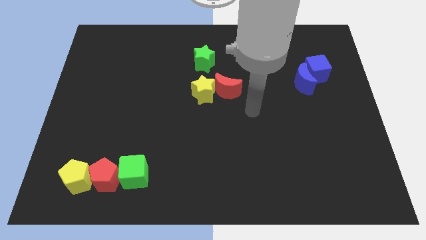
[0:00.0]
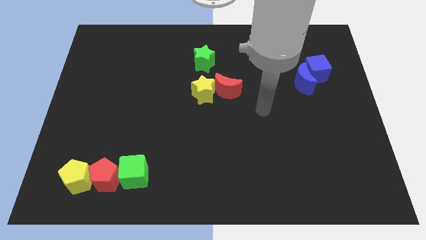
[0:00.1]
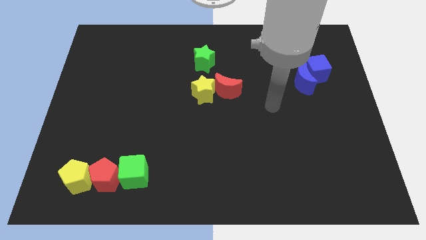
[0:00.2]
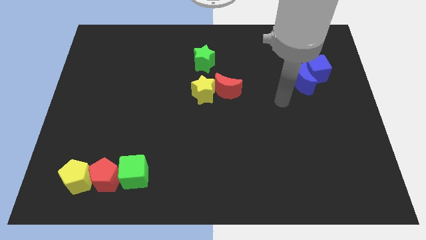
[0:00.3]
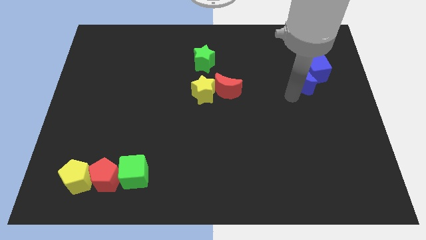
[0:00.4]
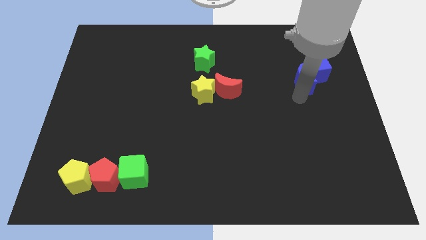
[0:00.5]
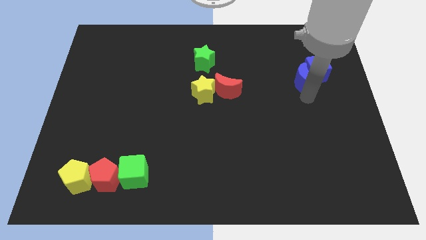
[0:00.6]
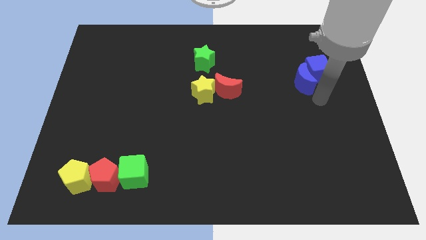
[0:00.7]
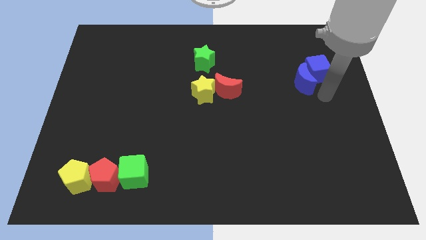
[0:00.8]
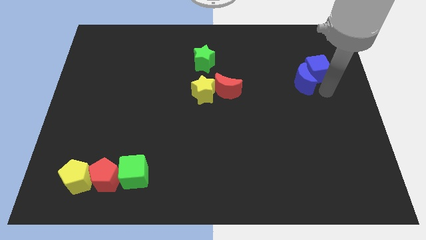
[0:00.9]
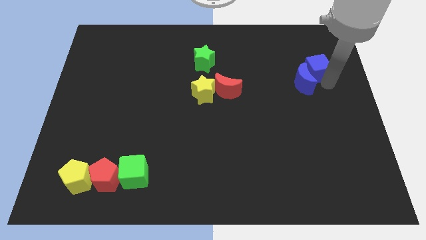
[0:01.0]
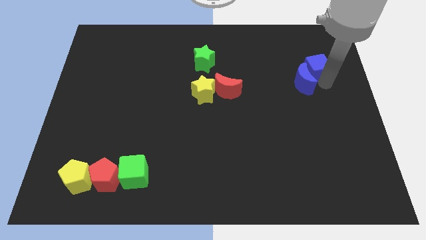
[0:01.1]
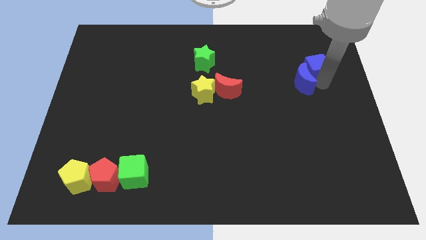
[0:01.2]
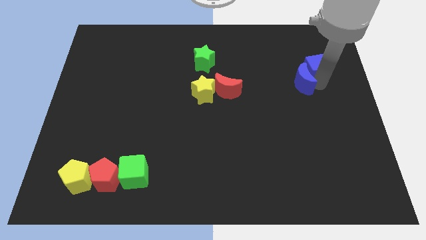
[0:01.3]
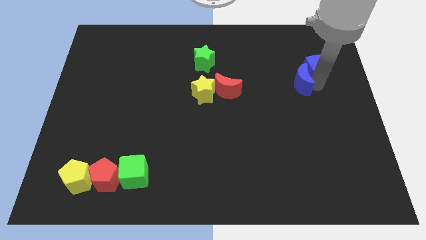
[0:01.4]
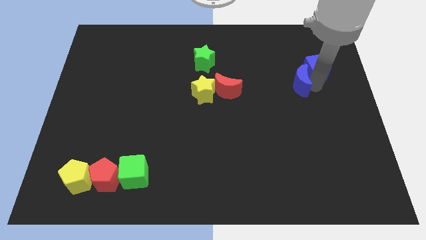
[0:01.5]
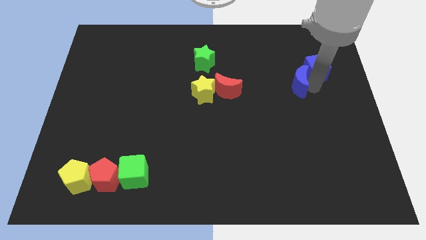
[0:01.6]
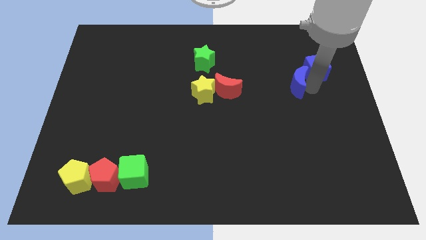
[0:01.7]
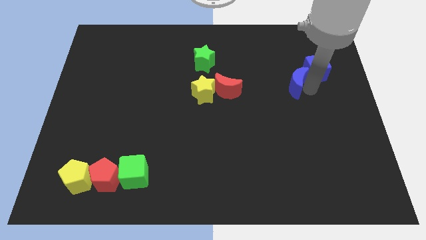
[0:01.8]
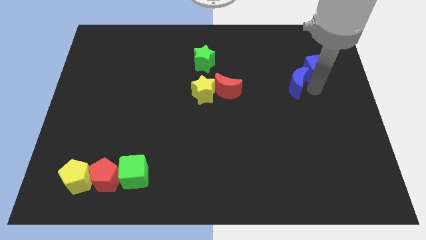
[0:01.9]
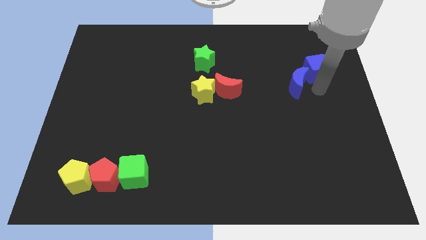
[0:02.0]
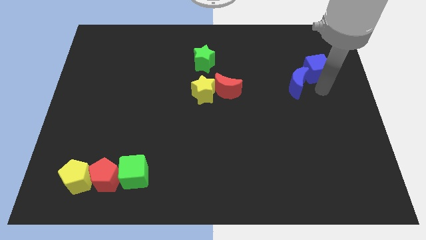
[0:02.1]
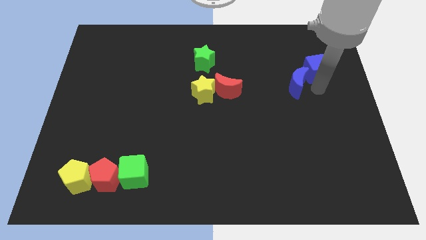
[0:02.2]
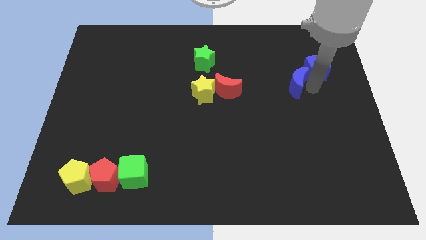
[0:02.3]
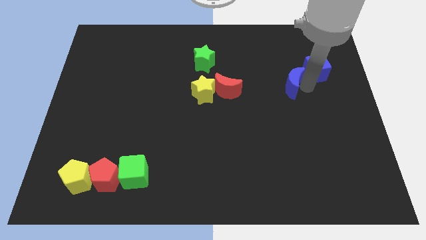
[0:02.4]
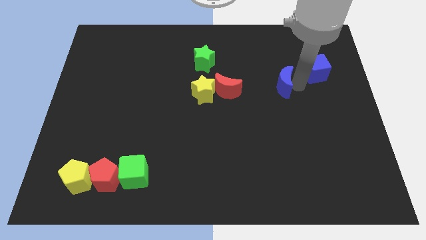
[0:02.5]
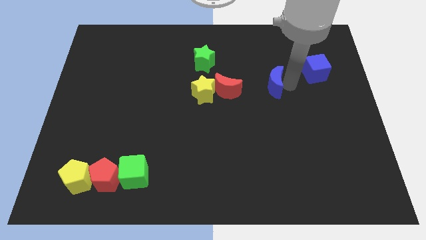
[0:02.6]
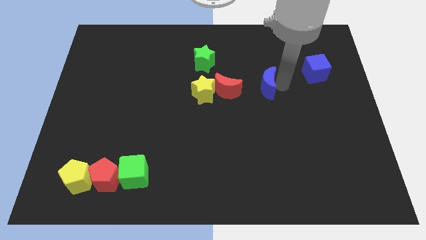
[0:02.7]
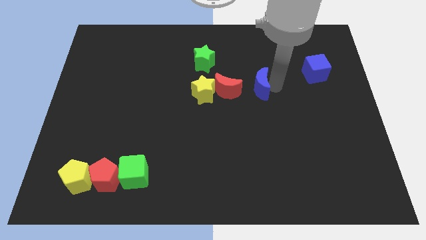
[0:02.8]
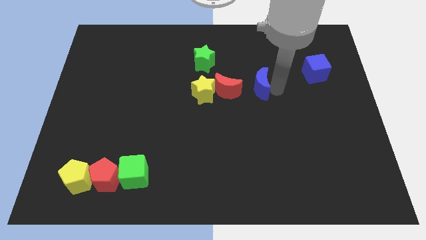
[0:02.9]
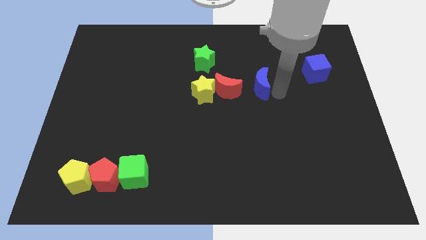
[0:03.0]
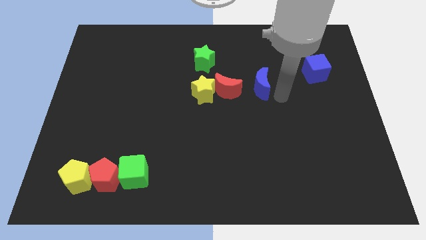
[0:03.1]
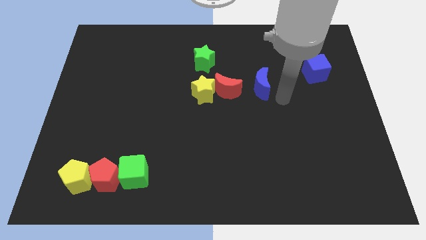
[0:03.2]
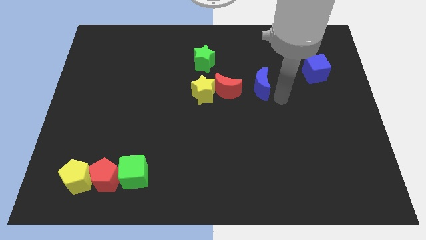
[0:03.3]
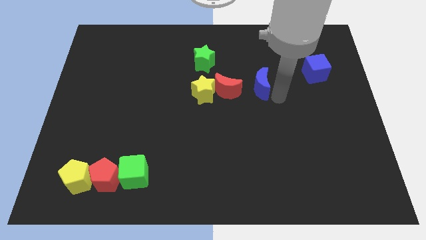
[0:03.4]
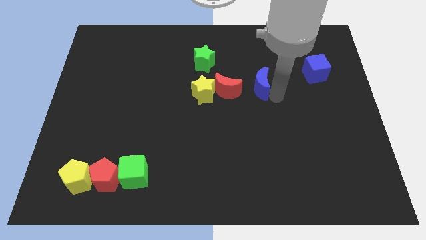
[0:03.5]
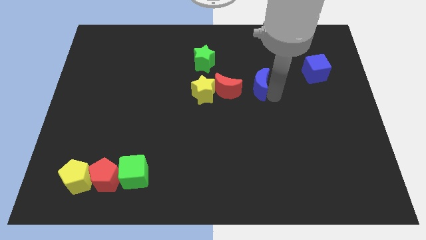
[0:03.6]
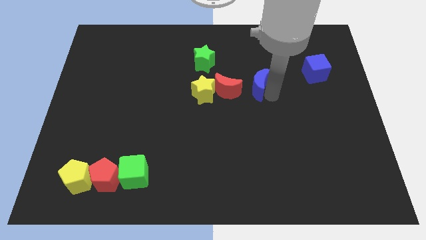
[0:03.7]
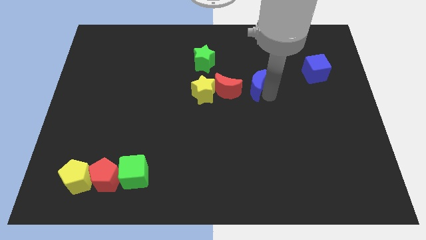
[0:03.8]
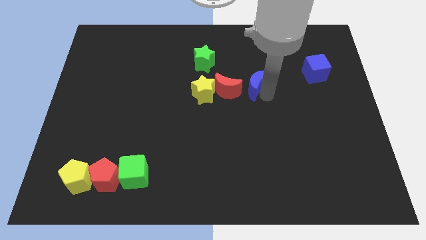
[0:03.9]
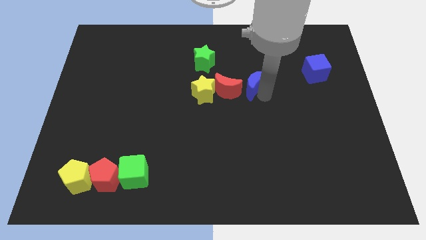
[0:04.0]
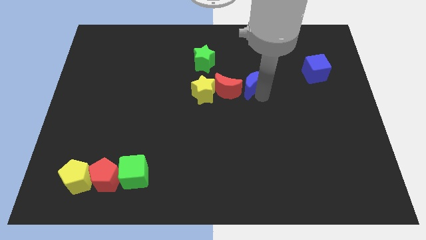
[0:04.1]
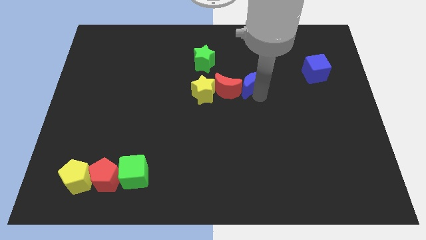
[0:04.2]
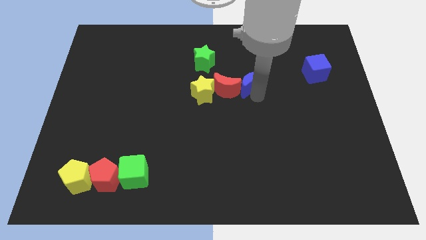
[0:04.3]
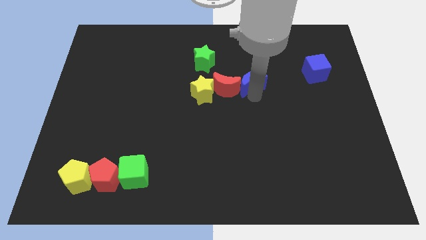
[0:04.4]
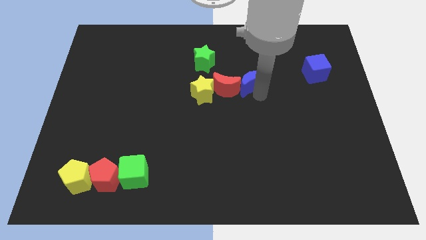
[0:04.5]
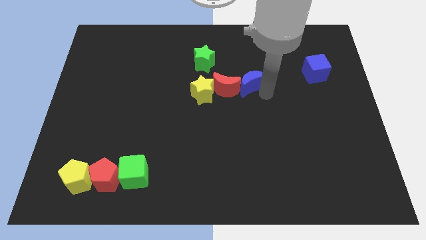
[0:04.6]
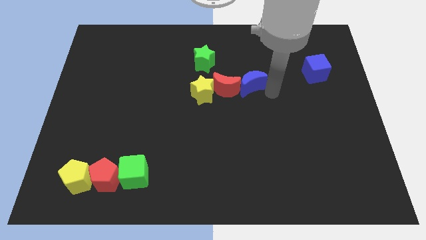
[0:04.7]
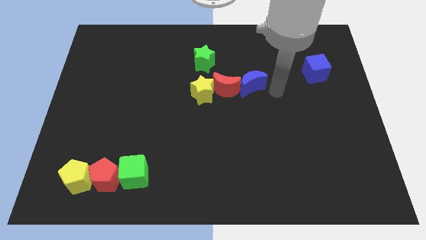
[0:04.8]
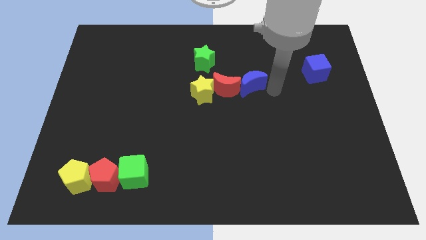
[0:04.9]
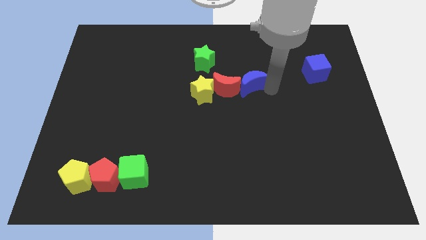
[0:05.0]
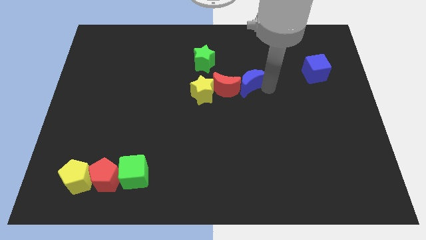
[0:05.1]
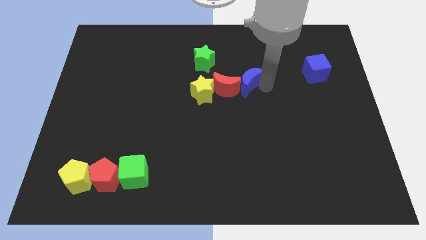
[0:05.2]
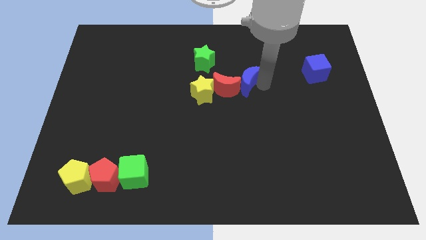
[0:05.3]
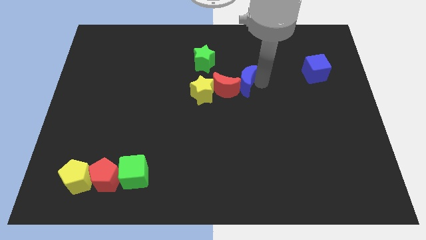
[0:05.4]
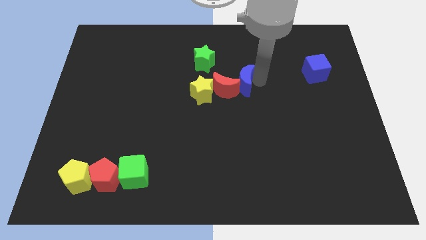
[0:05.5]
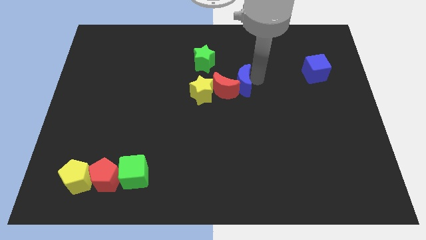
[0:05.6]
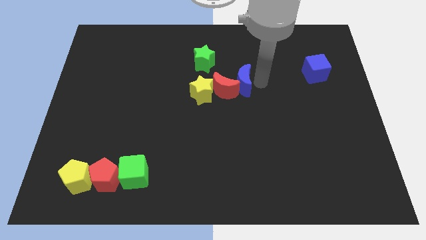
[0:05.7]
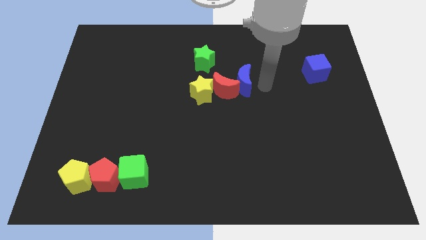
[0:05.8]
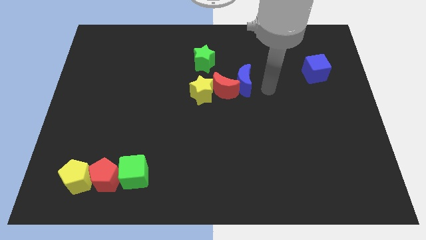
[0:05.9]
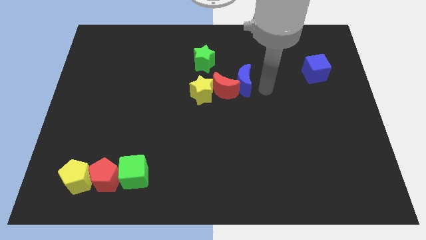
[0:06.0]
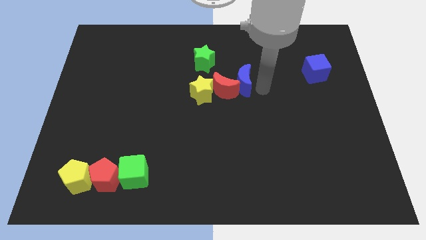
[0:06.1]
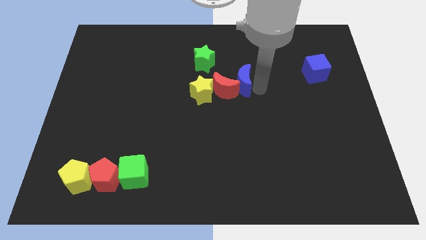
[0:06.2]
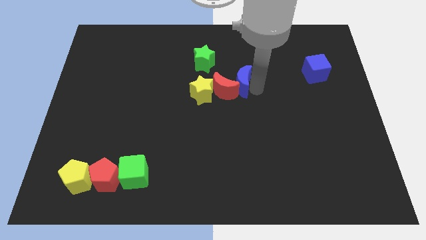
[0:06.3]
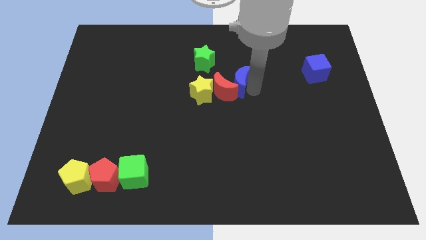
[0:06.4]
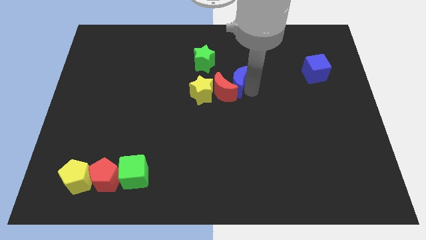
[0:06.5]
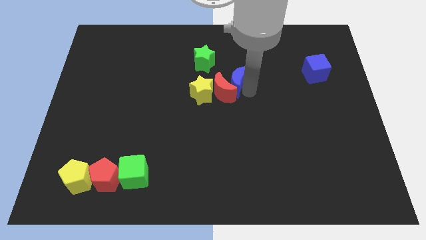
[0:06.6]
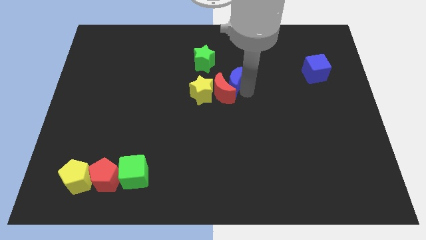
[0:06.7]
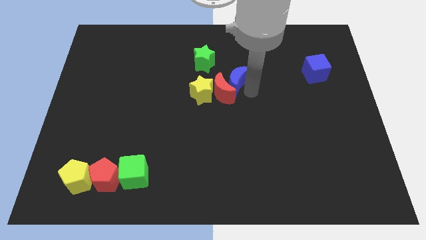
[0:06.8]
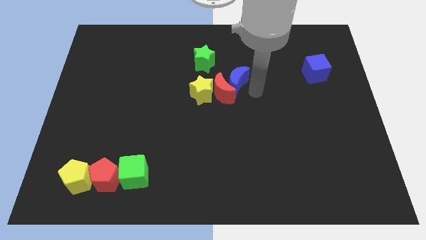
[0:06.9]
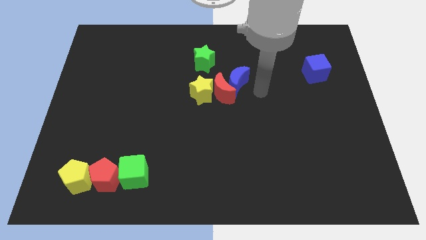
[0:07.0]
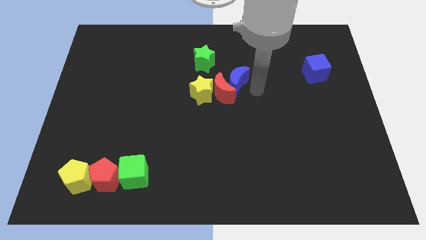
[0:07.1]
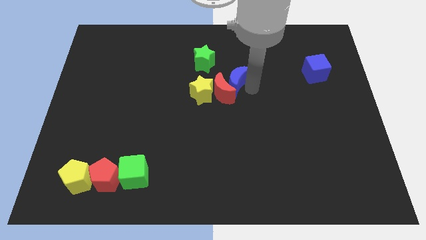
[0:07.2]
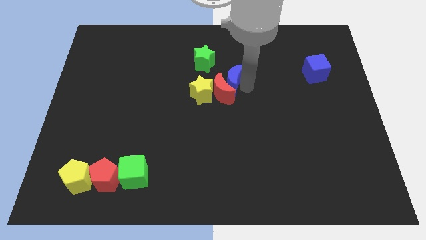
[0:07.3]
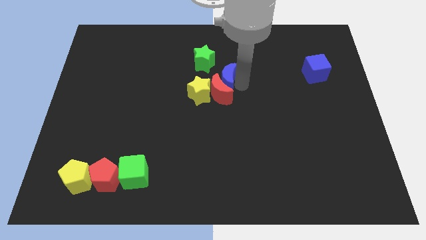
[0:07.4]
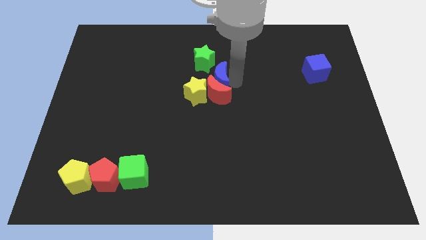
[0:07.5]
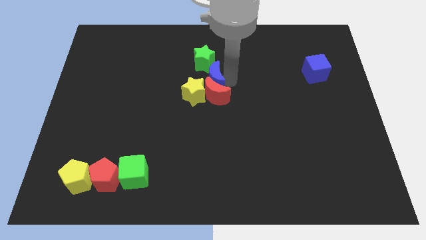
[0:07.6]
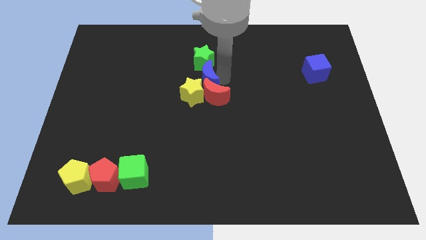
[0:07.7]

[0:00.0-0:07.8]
move the blue moon close to the yellow star
